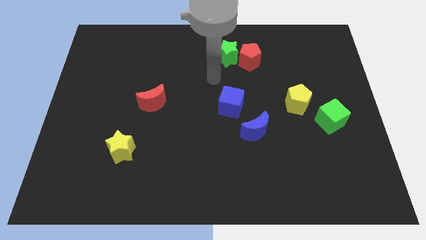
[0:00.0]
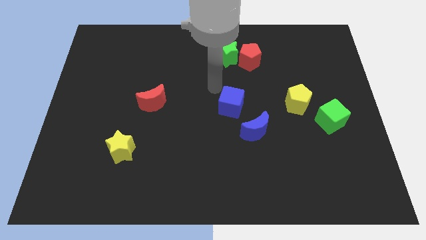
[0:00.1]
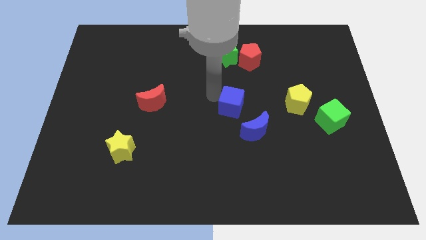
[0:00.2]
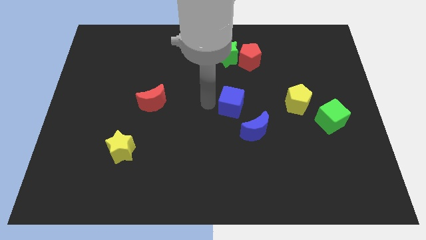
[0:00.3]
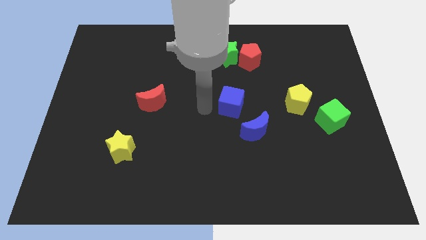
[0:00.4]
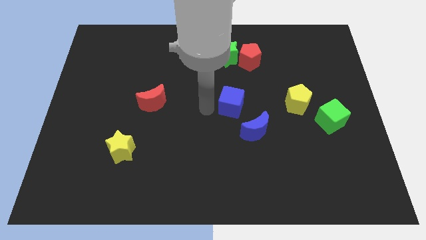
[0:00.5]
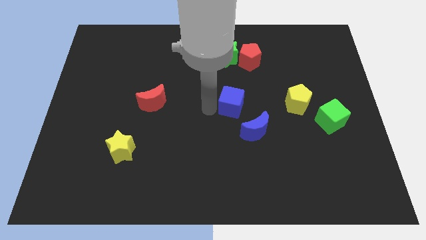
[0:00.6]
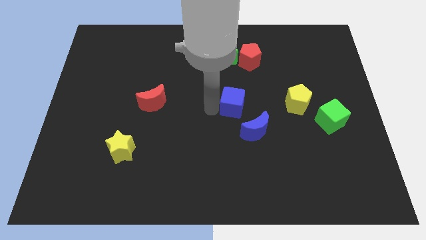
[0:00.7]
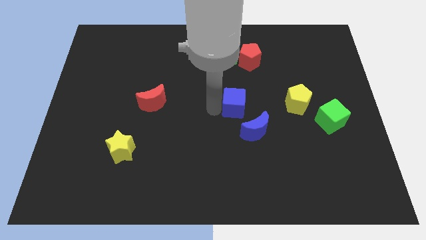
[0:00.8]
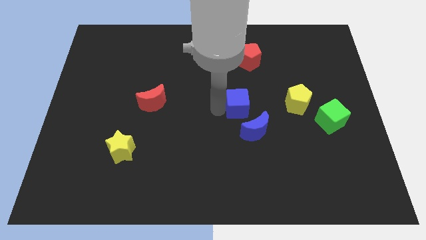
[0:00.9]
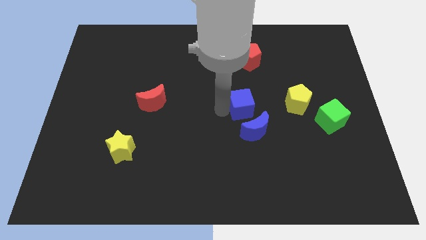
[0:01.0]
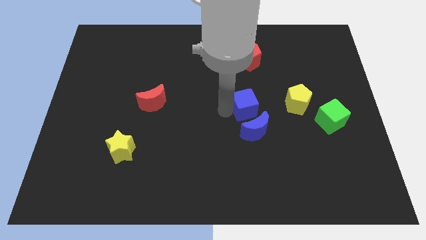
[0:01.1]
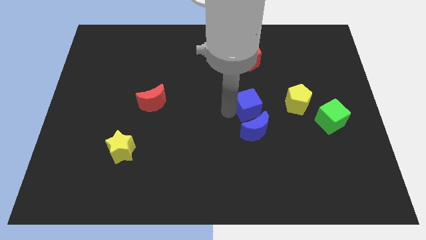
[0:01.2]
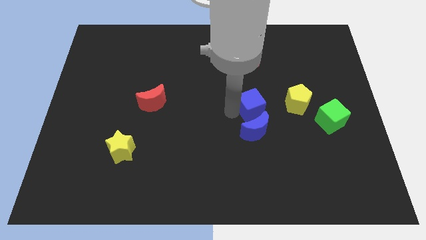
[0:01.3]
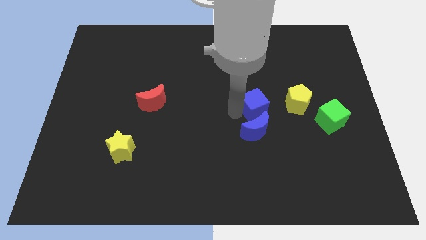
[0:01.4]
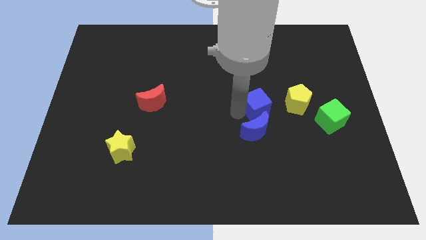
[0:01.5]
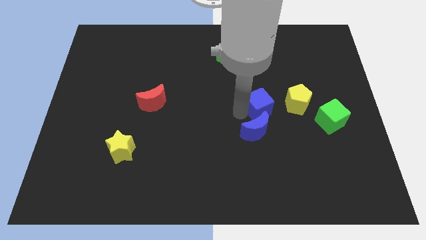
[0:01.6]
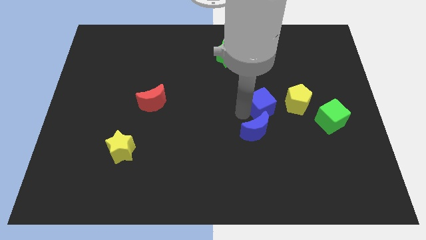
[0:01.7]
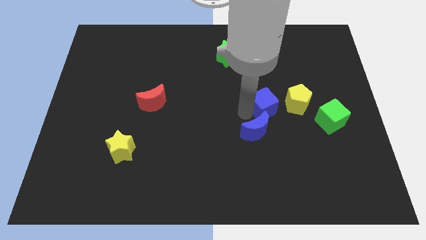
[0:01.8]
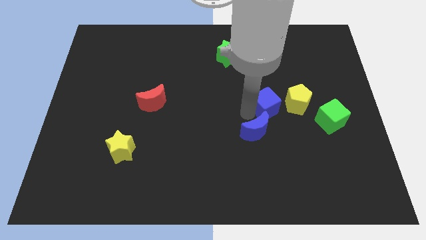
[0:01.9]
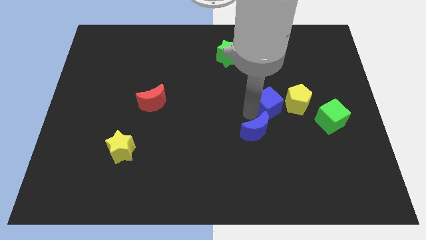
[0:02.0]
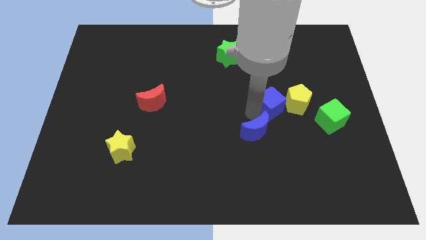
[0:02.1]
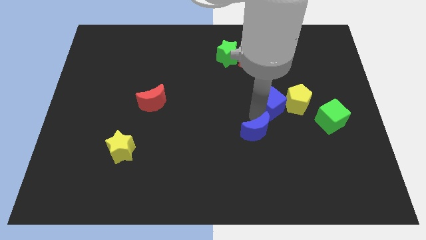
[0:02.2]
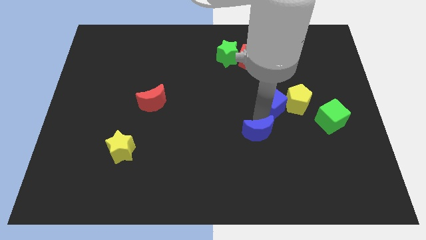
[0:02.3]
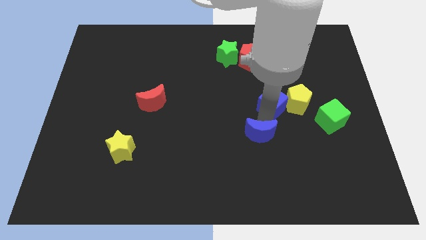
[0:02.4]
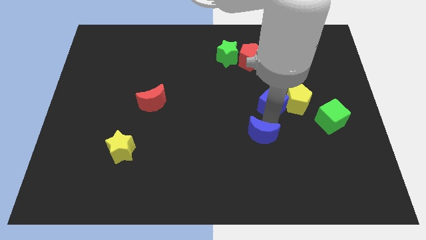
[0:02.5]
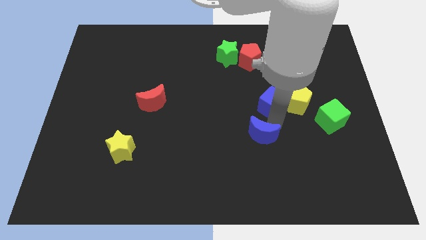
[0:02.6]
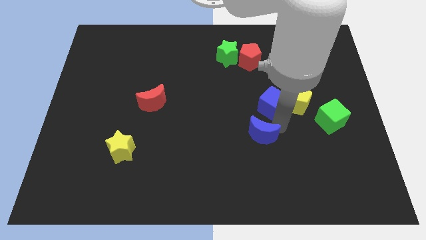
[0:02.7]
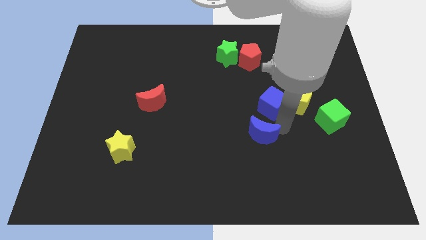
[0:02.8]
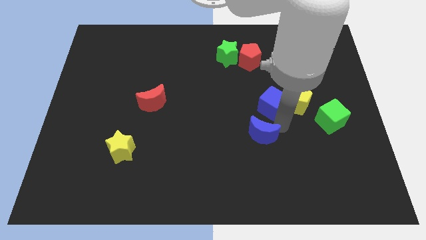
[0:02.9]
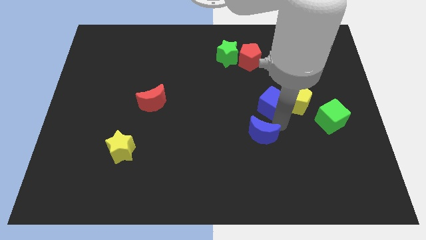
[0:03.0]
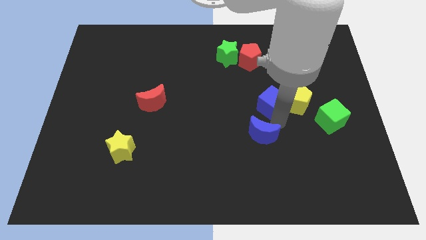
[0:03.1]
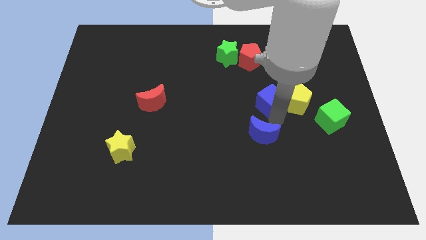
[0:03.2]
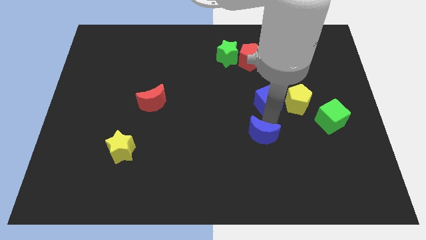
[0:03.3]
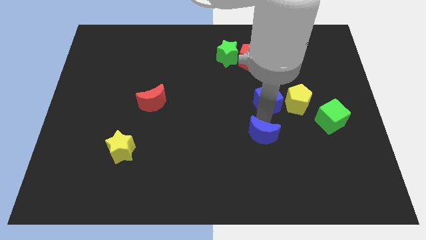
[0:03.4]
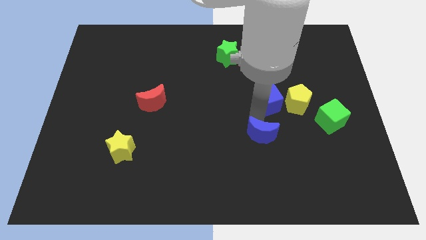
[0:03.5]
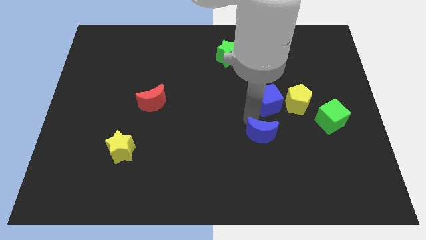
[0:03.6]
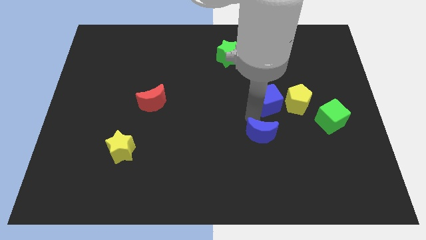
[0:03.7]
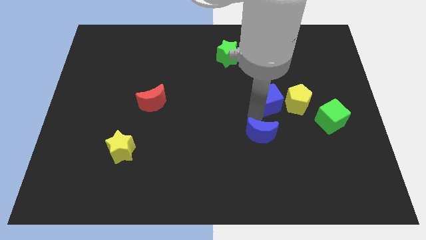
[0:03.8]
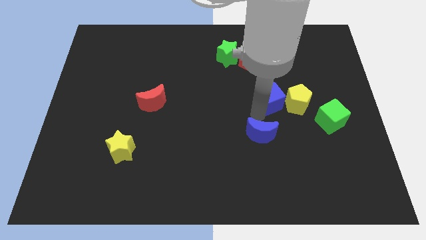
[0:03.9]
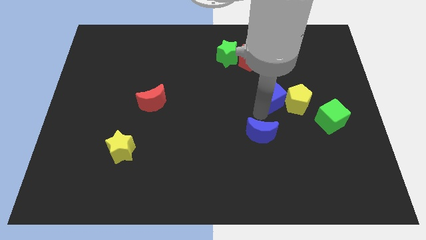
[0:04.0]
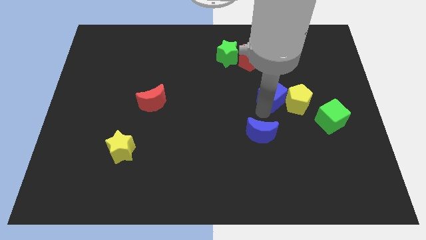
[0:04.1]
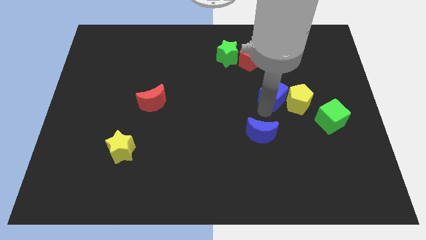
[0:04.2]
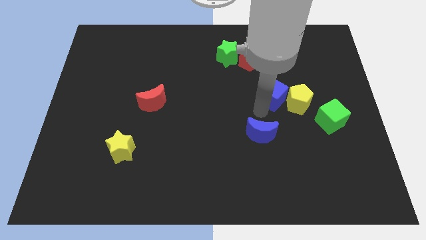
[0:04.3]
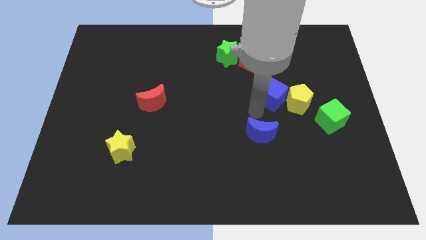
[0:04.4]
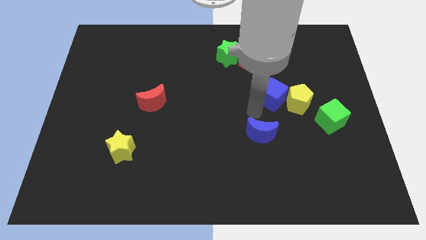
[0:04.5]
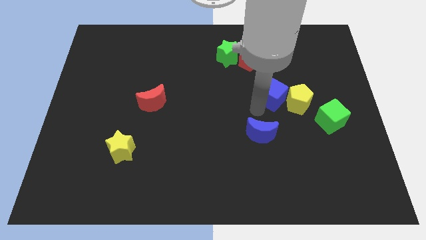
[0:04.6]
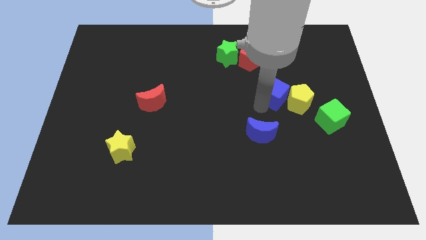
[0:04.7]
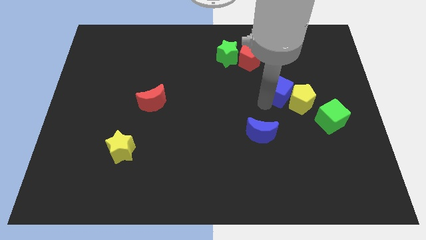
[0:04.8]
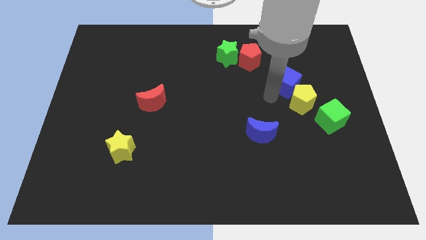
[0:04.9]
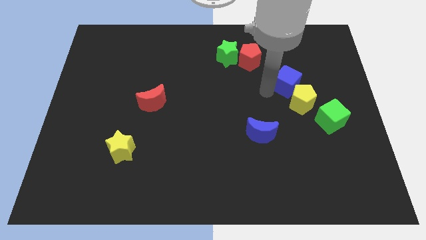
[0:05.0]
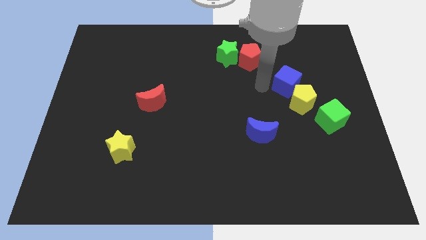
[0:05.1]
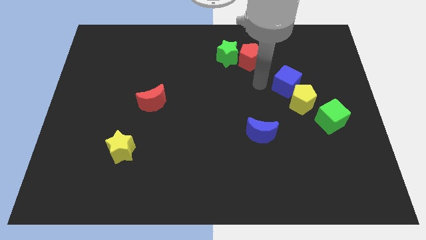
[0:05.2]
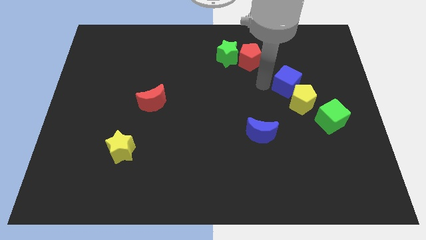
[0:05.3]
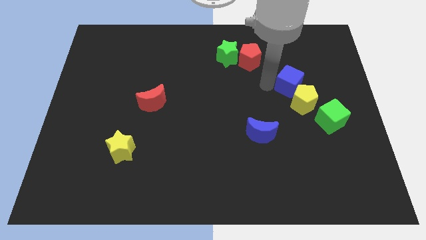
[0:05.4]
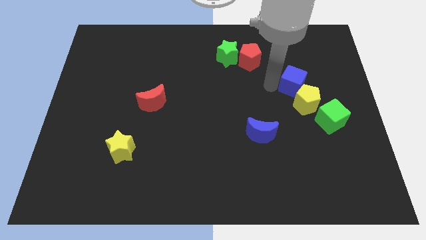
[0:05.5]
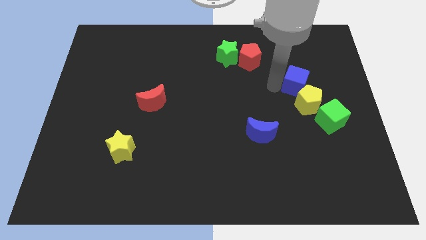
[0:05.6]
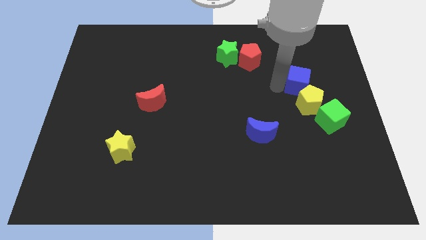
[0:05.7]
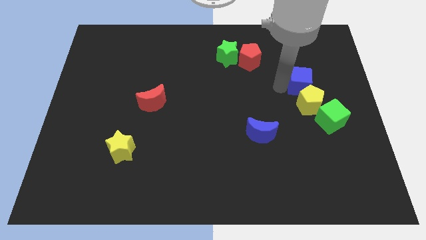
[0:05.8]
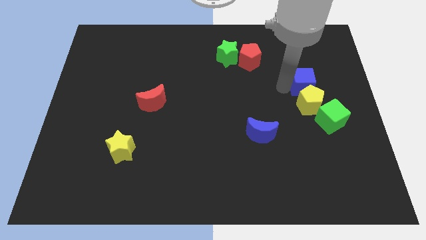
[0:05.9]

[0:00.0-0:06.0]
slide the blue cube diagonally up and to the right of the yellow pentagon

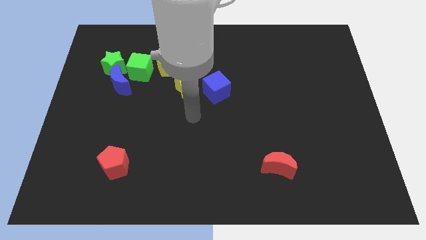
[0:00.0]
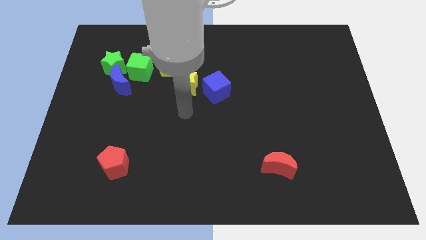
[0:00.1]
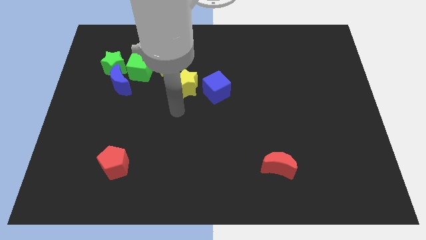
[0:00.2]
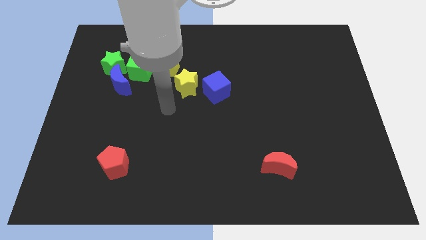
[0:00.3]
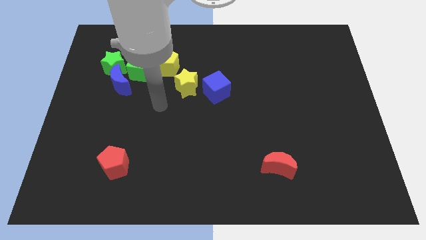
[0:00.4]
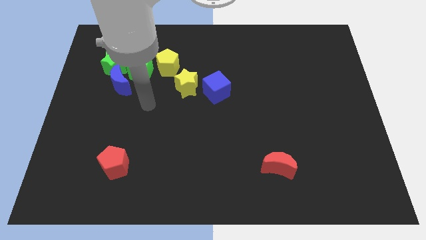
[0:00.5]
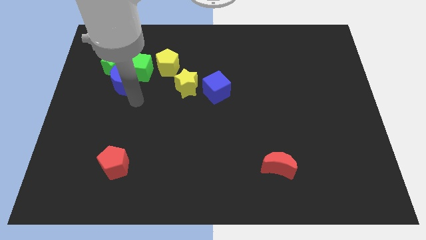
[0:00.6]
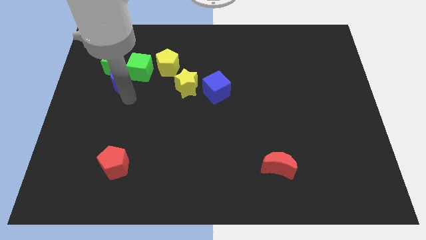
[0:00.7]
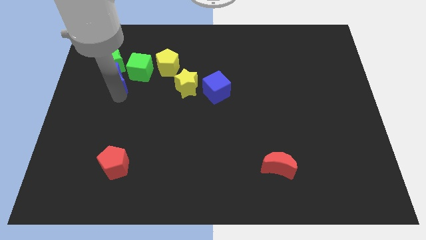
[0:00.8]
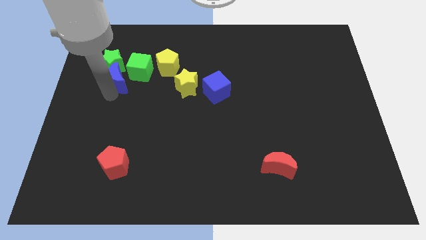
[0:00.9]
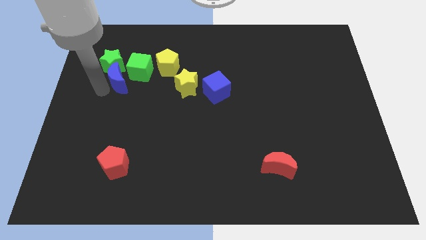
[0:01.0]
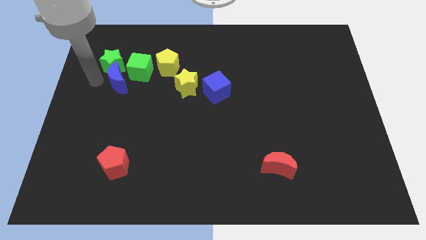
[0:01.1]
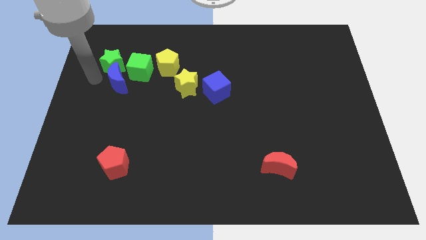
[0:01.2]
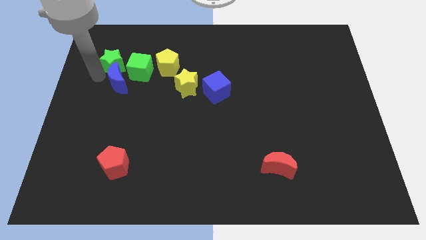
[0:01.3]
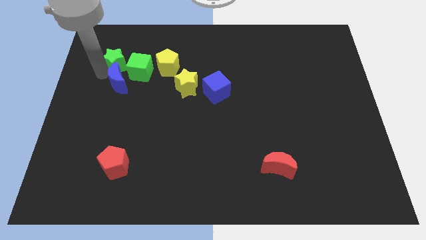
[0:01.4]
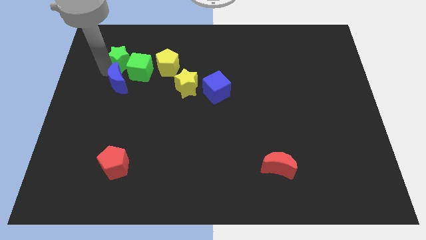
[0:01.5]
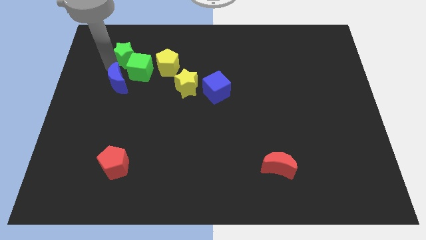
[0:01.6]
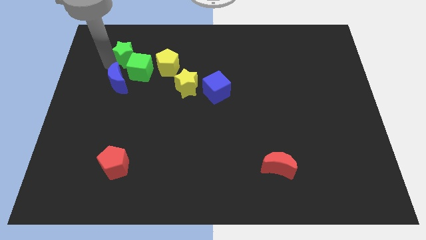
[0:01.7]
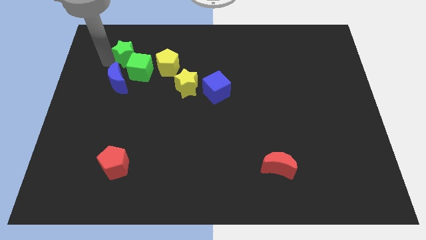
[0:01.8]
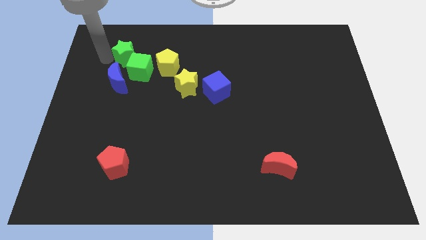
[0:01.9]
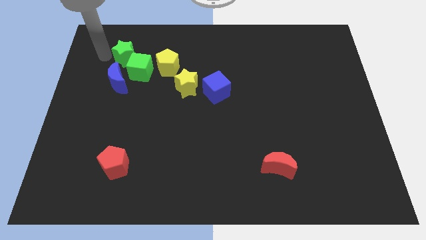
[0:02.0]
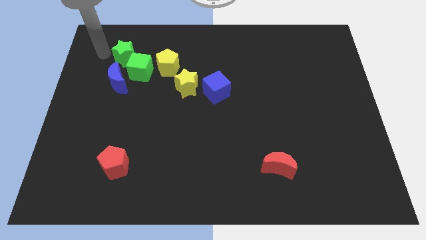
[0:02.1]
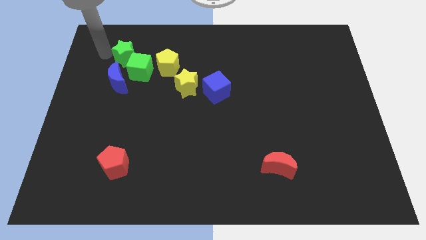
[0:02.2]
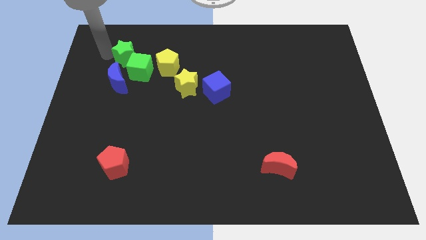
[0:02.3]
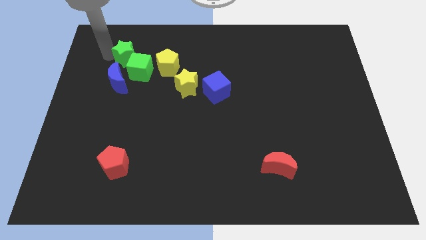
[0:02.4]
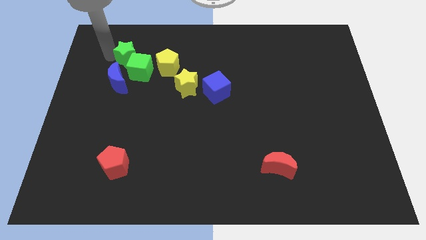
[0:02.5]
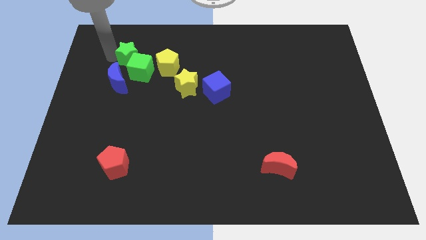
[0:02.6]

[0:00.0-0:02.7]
push the green star diagonally up and to the right of the blue moon
